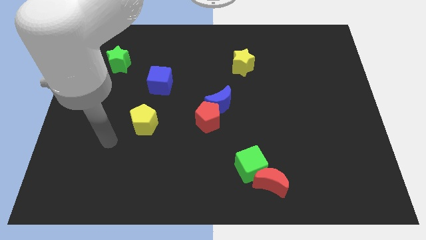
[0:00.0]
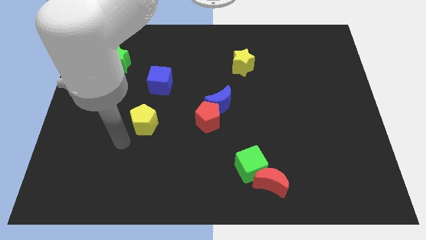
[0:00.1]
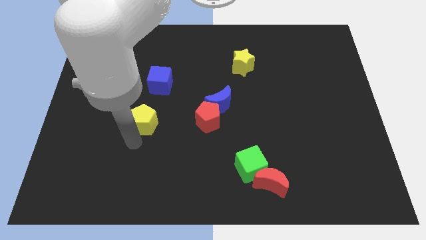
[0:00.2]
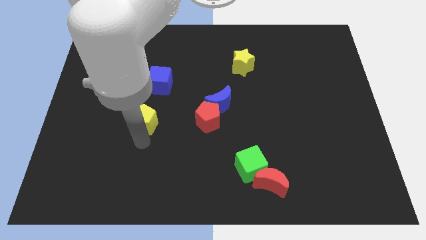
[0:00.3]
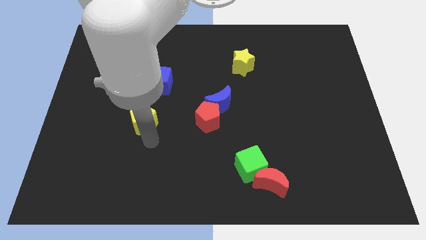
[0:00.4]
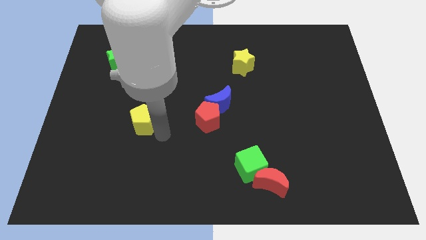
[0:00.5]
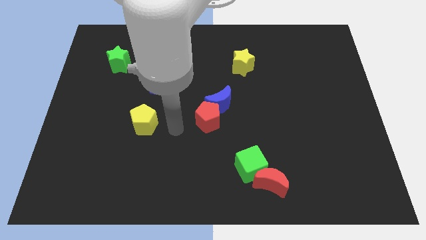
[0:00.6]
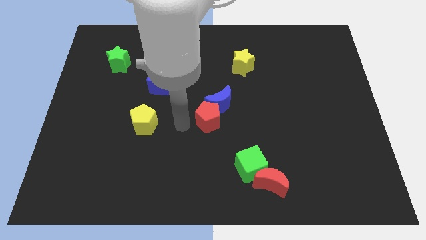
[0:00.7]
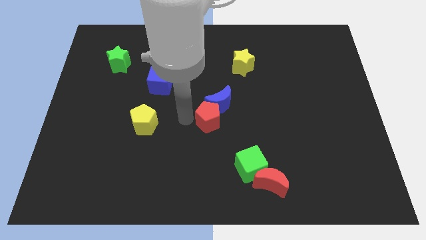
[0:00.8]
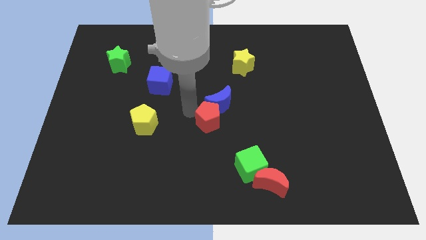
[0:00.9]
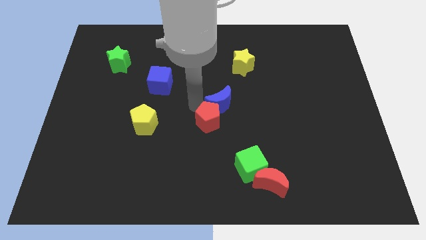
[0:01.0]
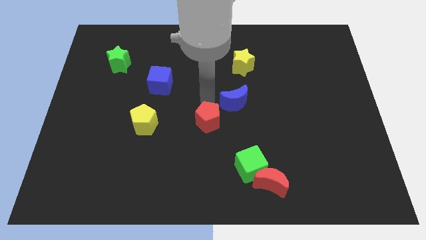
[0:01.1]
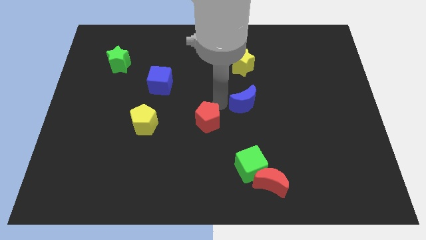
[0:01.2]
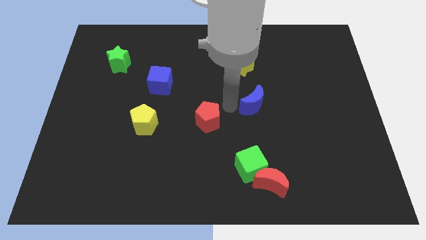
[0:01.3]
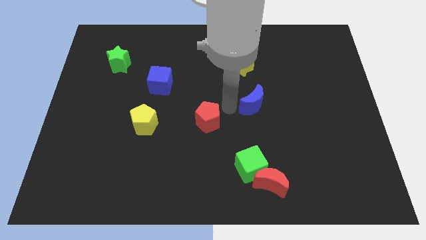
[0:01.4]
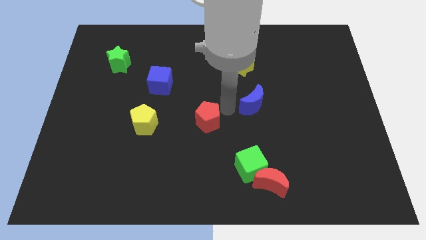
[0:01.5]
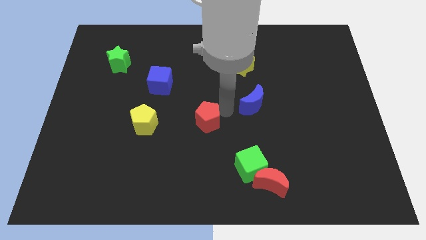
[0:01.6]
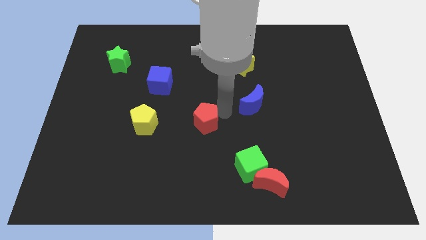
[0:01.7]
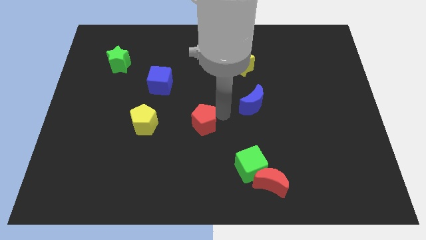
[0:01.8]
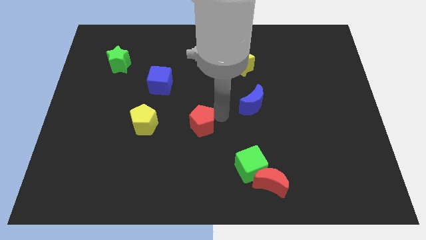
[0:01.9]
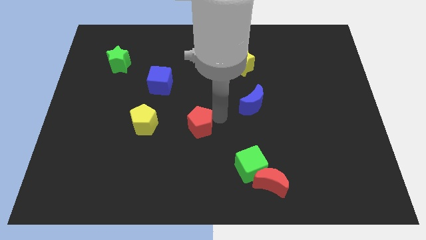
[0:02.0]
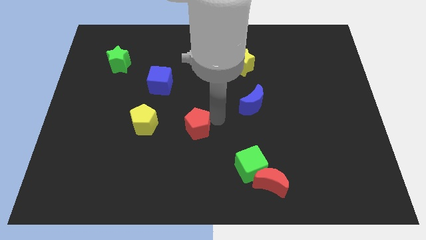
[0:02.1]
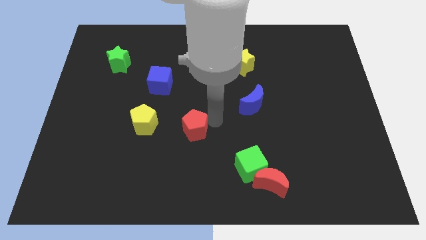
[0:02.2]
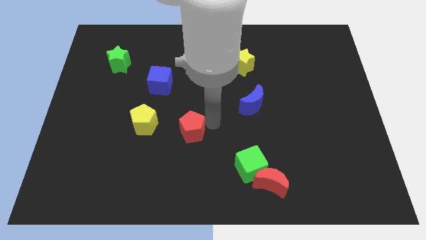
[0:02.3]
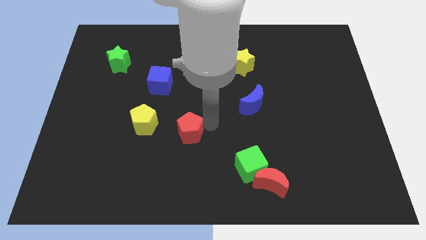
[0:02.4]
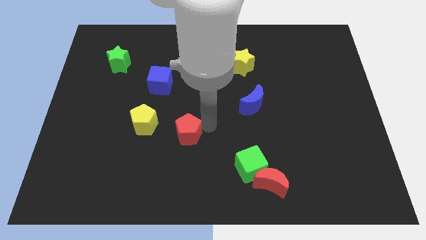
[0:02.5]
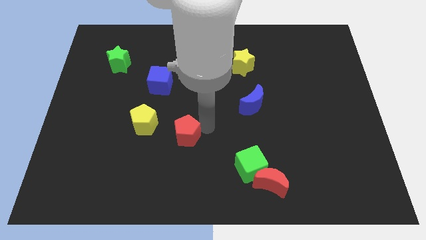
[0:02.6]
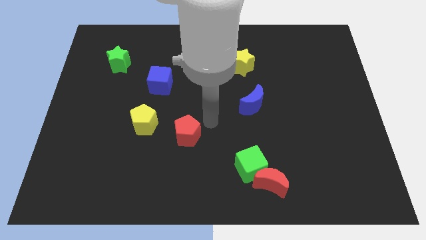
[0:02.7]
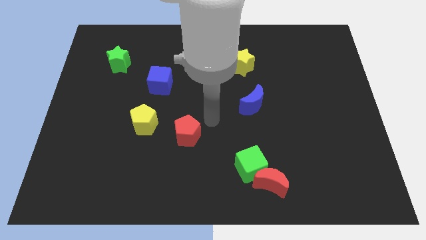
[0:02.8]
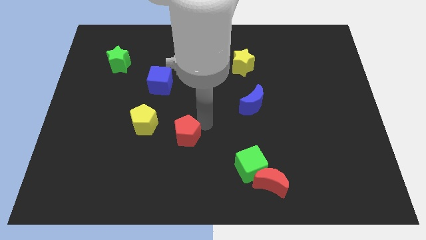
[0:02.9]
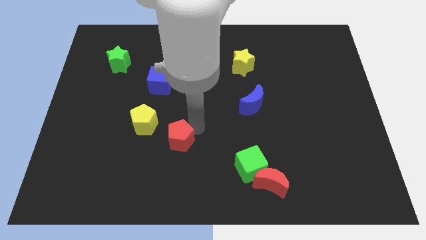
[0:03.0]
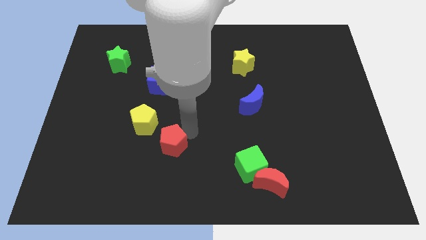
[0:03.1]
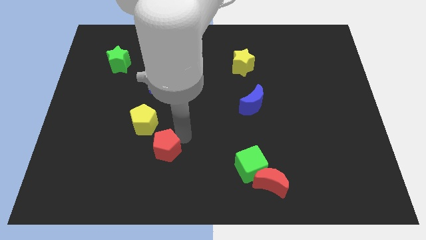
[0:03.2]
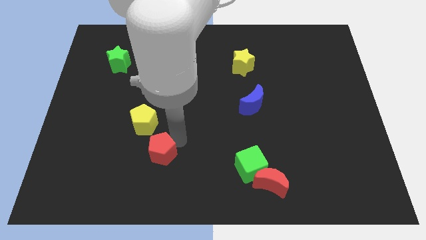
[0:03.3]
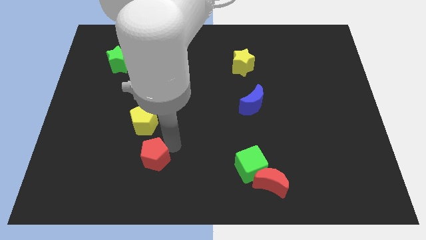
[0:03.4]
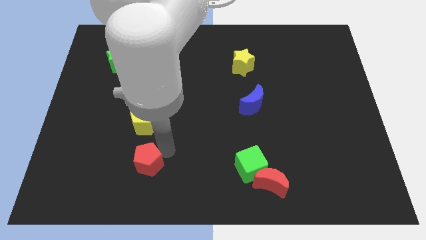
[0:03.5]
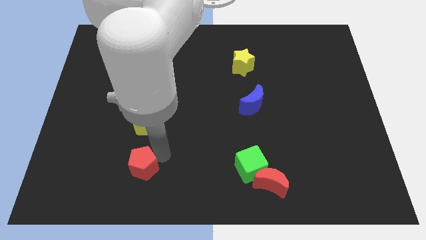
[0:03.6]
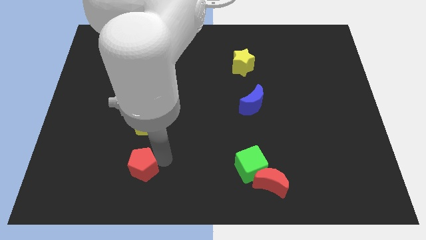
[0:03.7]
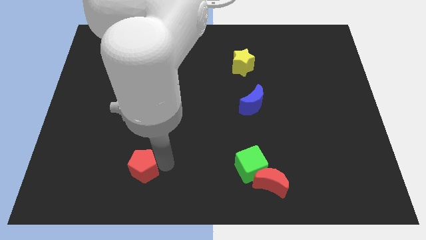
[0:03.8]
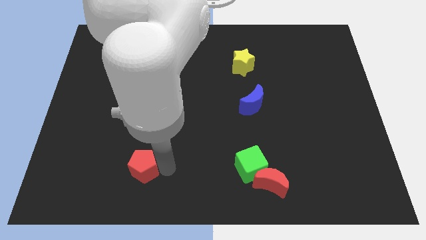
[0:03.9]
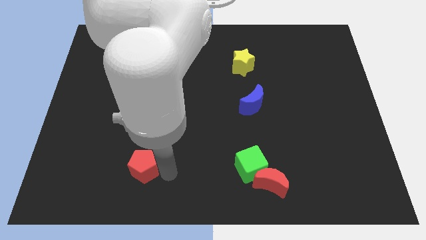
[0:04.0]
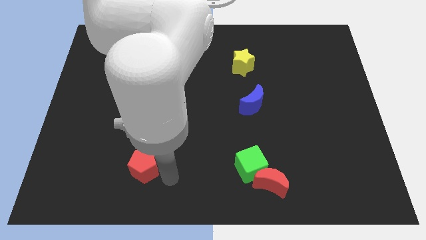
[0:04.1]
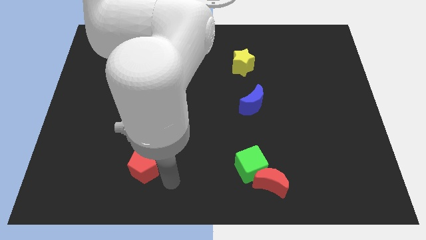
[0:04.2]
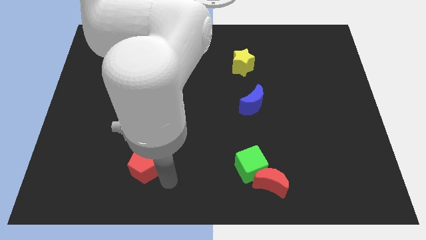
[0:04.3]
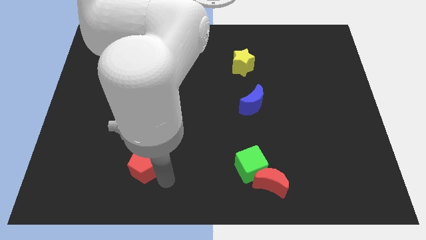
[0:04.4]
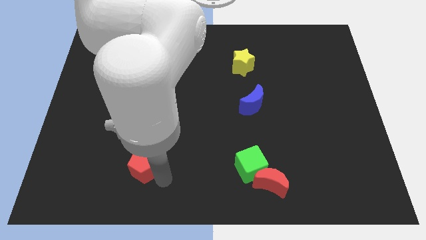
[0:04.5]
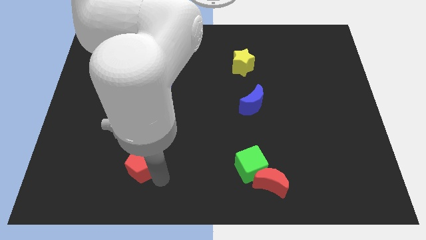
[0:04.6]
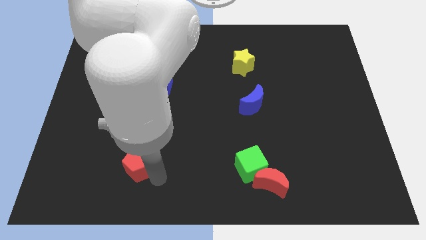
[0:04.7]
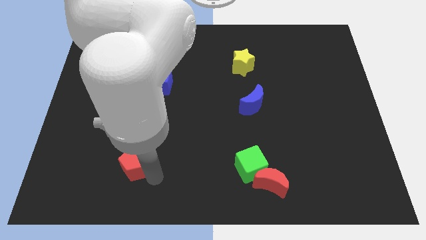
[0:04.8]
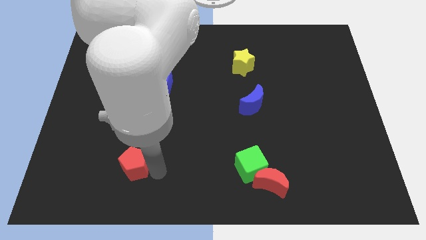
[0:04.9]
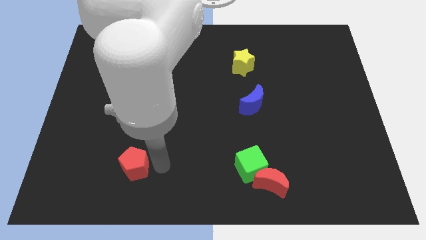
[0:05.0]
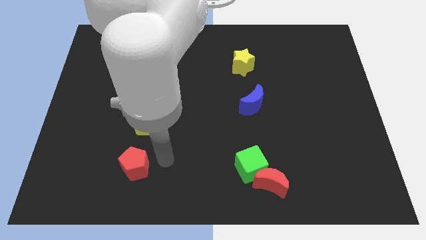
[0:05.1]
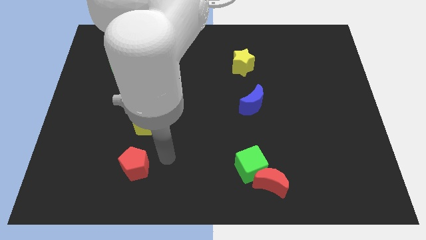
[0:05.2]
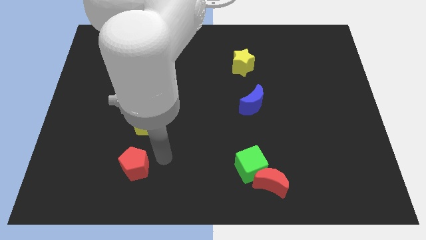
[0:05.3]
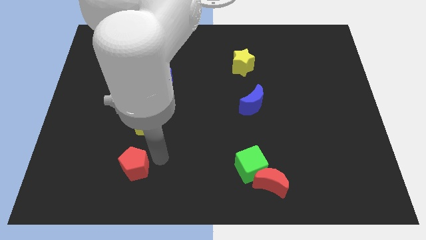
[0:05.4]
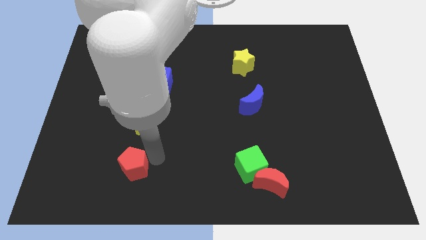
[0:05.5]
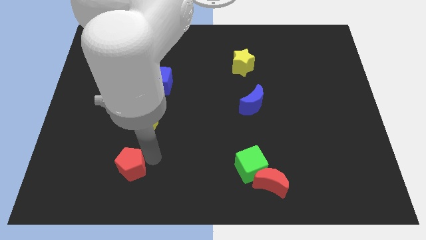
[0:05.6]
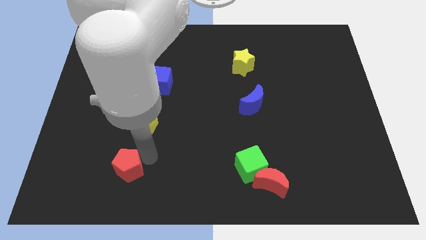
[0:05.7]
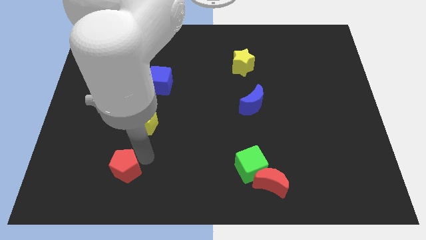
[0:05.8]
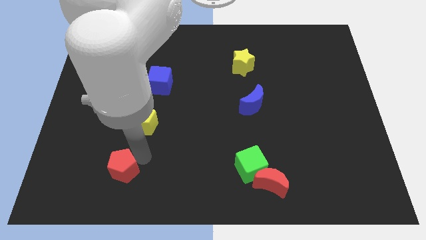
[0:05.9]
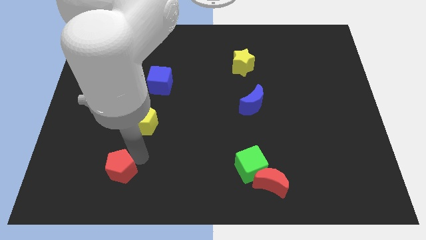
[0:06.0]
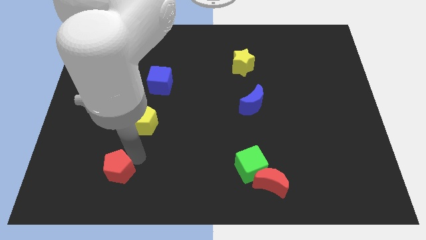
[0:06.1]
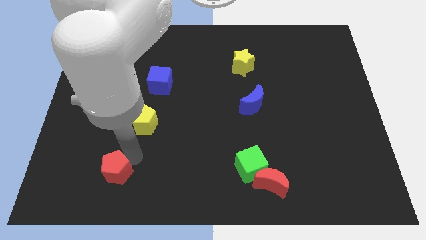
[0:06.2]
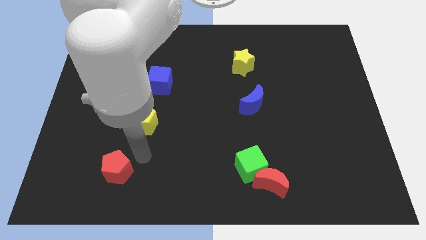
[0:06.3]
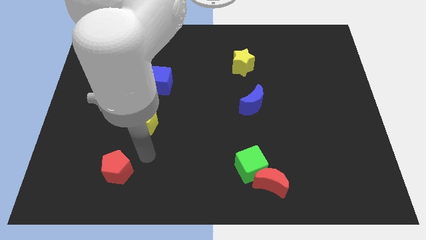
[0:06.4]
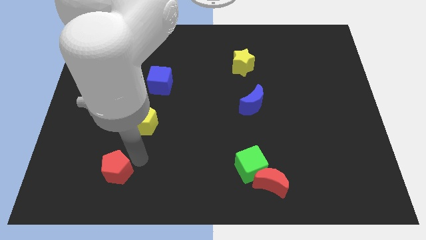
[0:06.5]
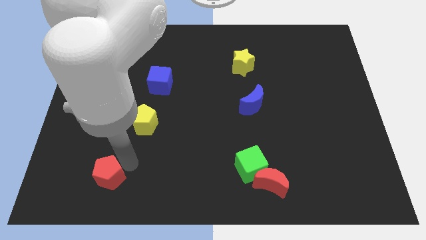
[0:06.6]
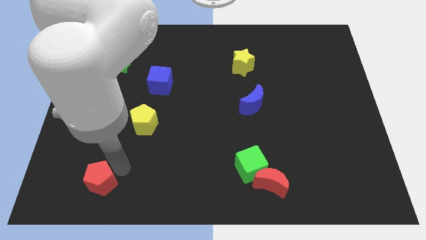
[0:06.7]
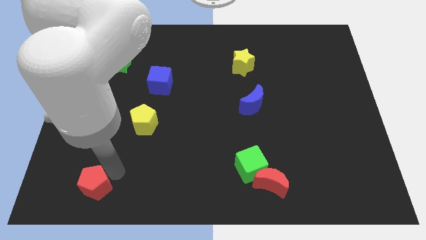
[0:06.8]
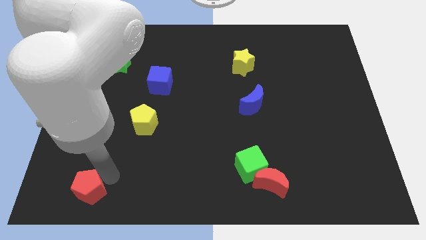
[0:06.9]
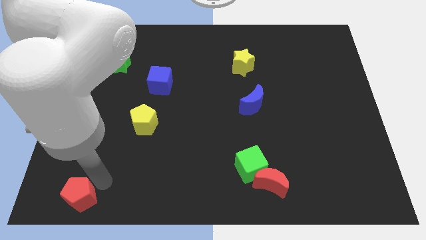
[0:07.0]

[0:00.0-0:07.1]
move the red pentagon to the bottom left of the board
